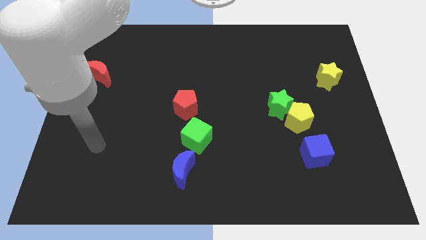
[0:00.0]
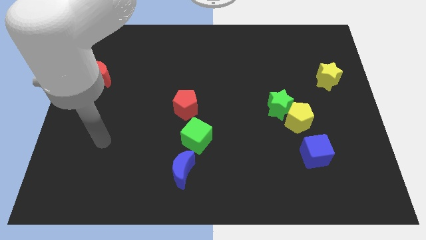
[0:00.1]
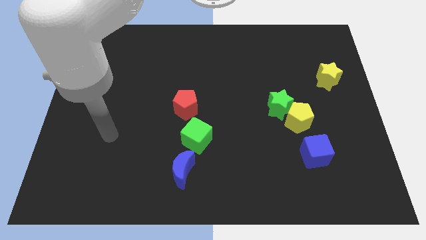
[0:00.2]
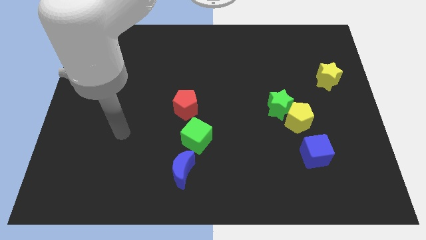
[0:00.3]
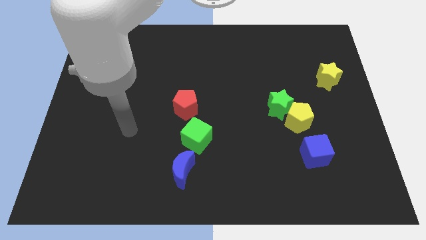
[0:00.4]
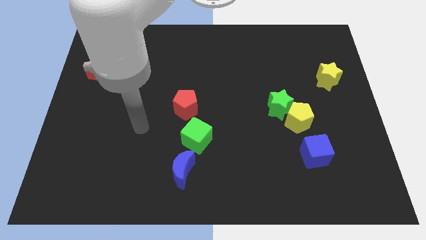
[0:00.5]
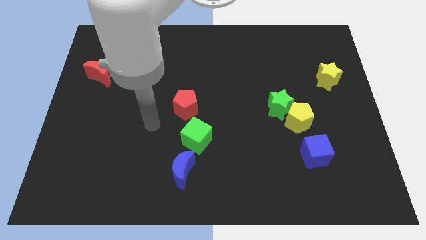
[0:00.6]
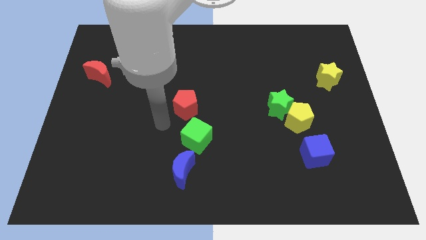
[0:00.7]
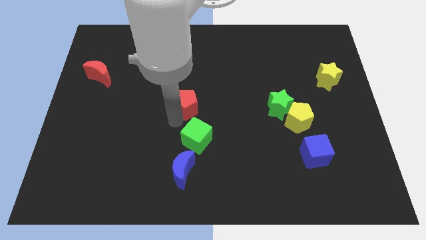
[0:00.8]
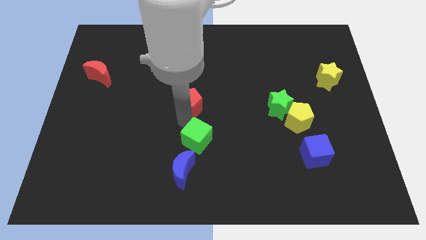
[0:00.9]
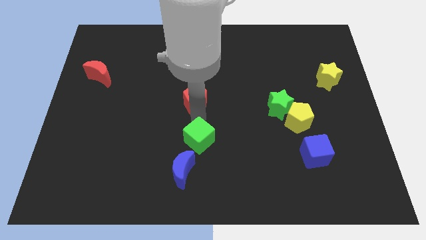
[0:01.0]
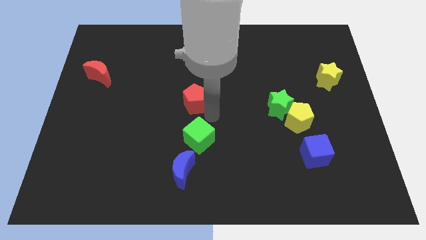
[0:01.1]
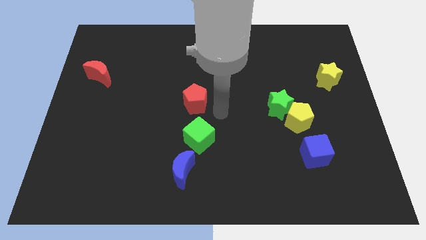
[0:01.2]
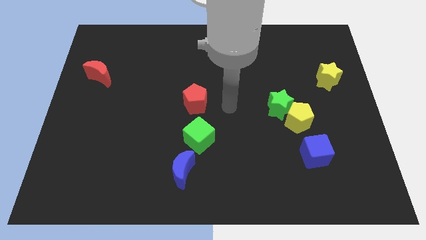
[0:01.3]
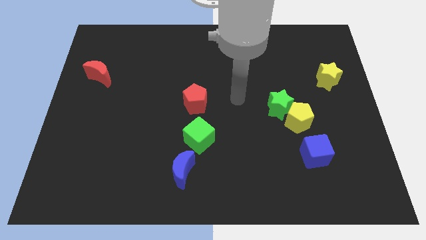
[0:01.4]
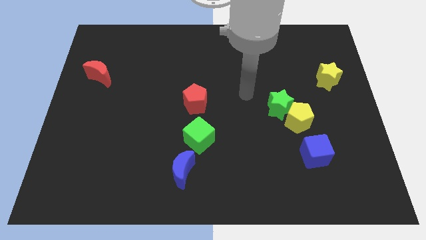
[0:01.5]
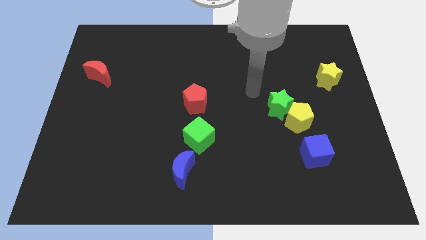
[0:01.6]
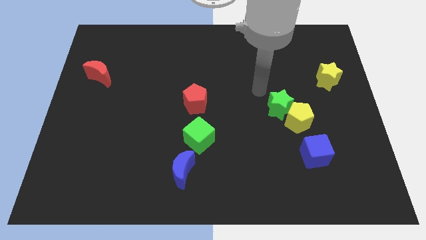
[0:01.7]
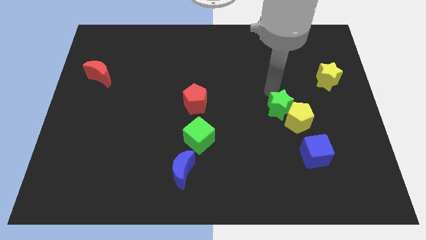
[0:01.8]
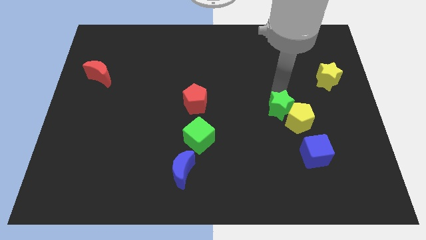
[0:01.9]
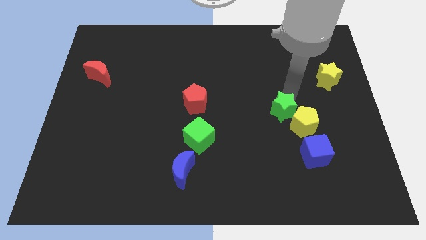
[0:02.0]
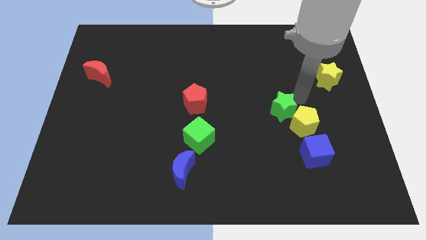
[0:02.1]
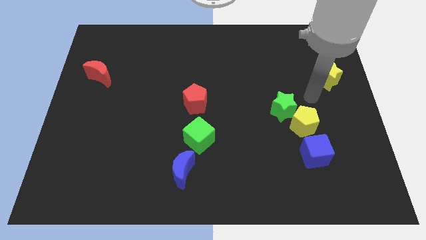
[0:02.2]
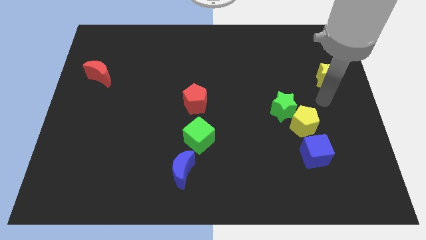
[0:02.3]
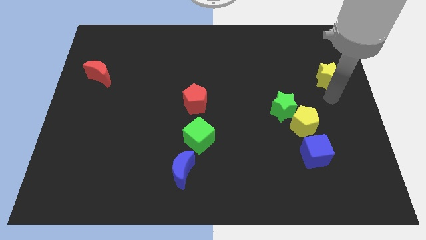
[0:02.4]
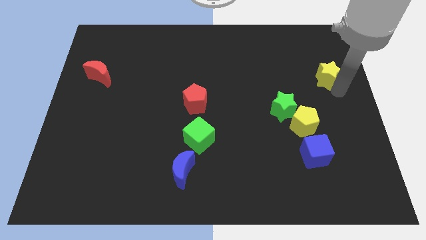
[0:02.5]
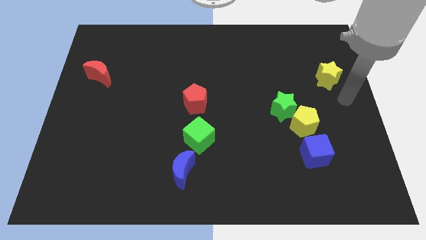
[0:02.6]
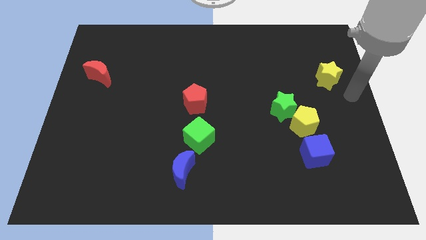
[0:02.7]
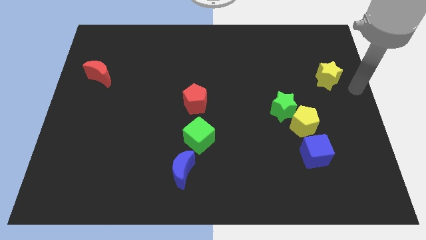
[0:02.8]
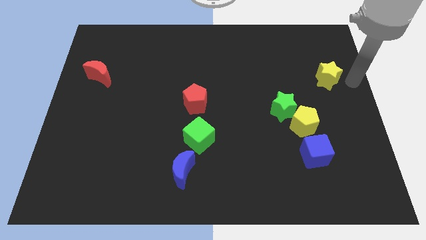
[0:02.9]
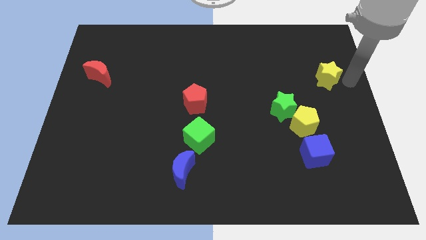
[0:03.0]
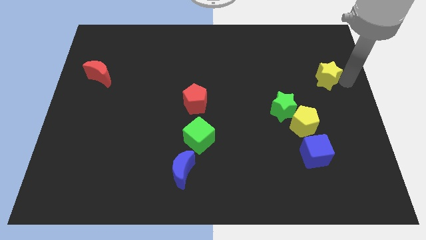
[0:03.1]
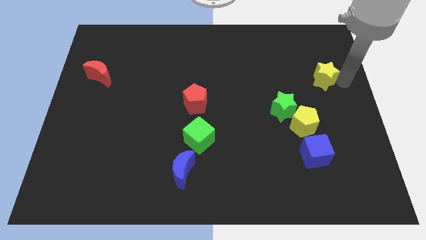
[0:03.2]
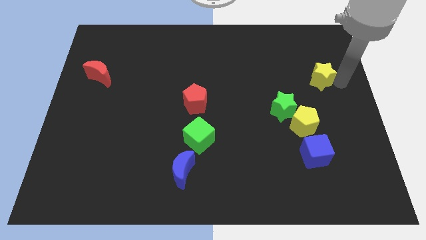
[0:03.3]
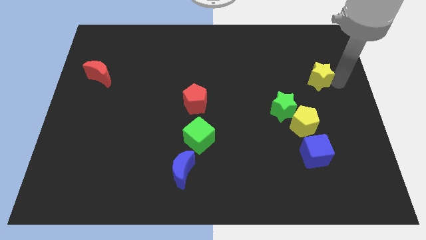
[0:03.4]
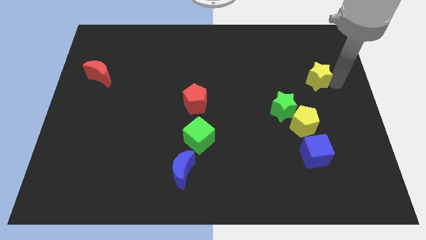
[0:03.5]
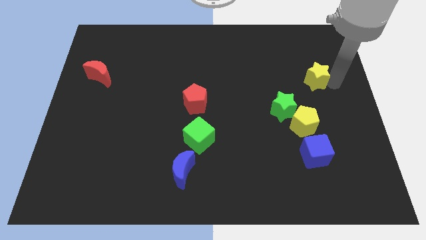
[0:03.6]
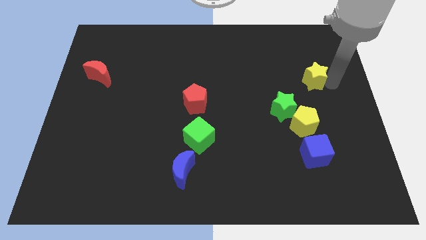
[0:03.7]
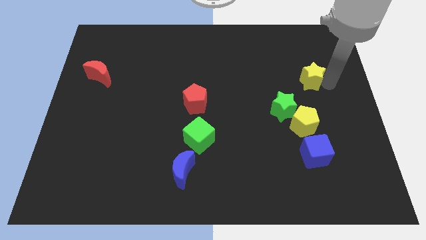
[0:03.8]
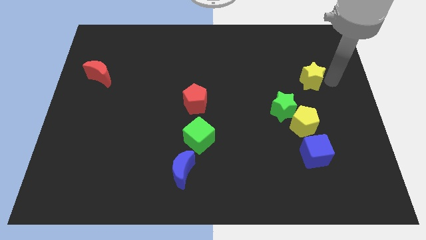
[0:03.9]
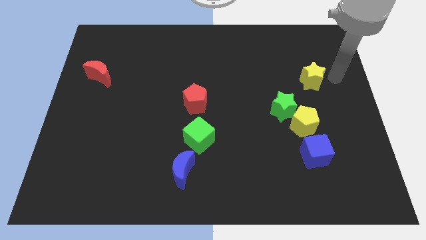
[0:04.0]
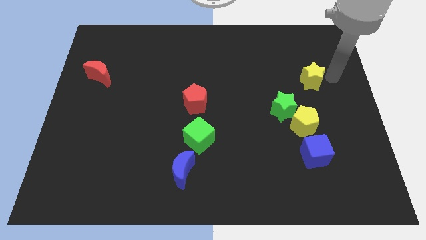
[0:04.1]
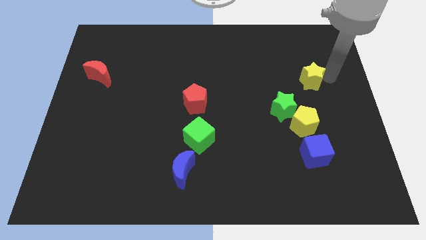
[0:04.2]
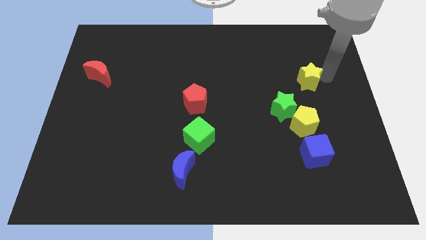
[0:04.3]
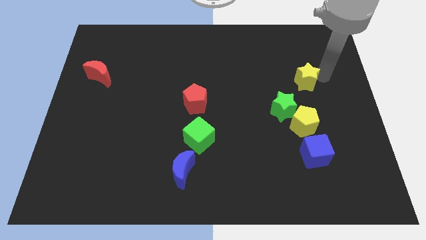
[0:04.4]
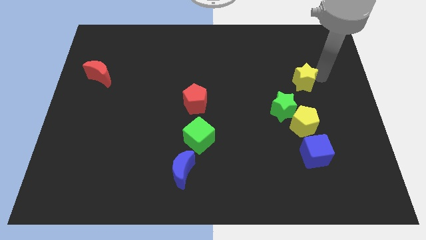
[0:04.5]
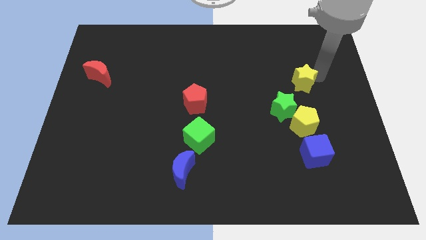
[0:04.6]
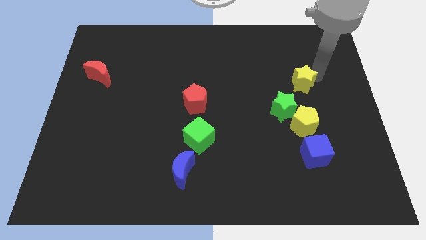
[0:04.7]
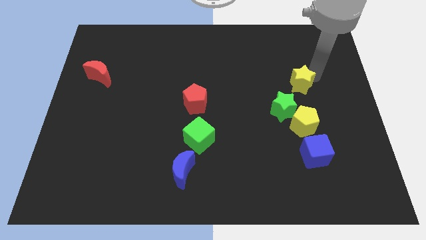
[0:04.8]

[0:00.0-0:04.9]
slightly push the yellow star to the left

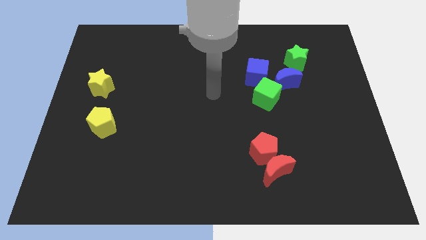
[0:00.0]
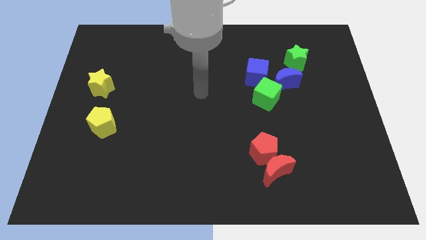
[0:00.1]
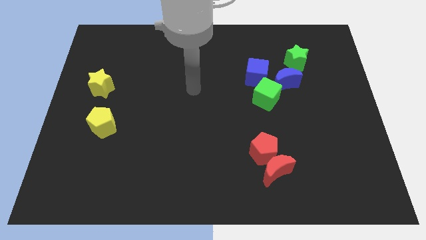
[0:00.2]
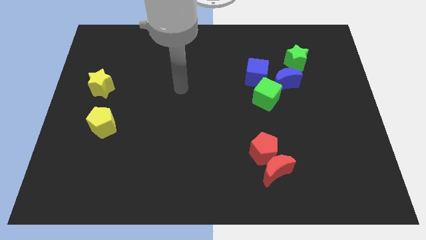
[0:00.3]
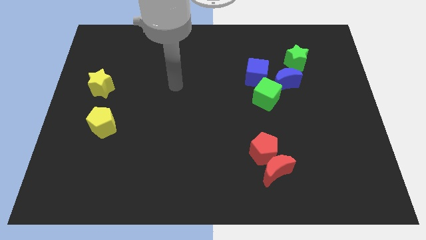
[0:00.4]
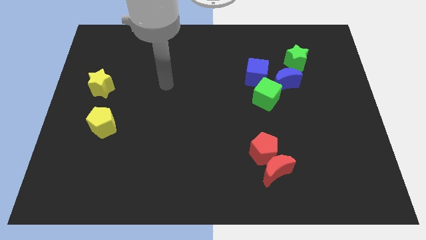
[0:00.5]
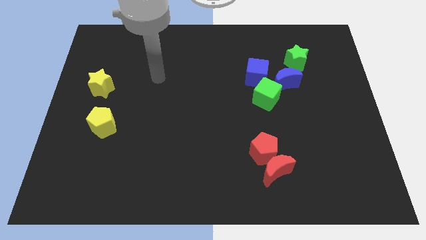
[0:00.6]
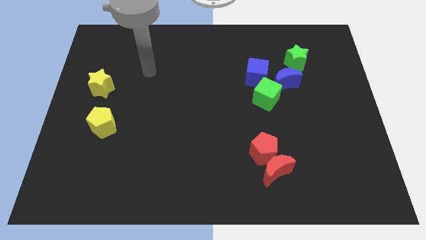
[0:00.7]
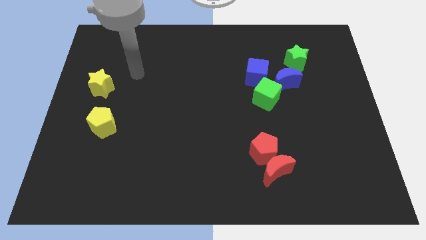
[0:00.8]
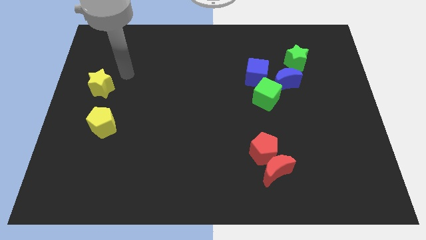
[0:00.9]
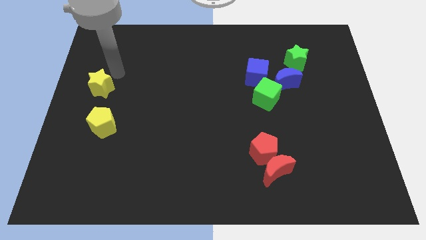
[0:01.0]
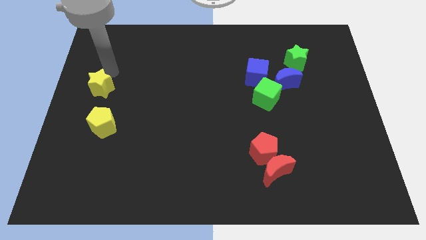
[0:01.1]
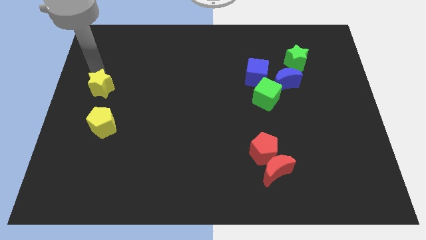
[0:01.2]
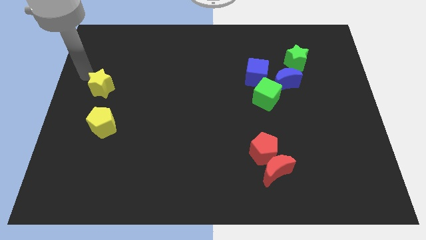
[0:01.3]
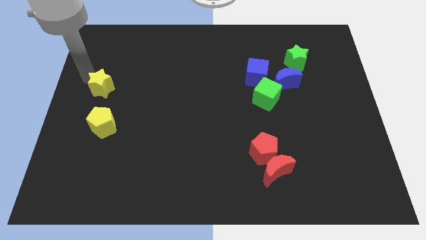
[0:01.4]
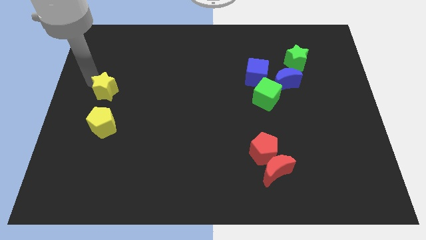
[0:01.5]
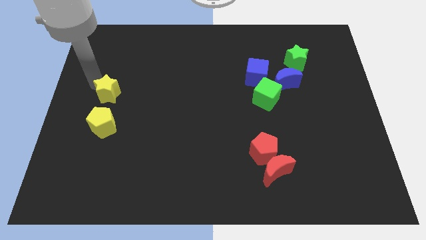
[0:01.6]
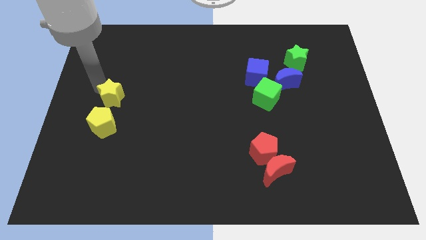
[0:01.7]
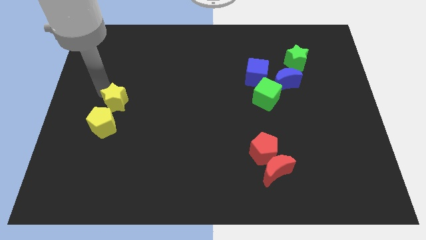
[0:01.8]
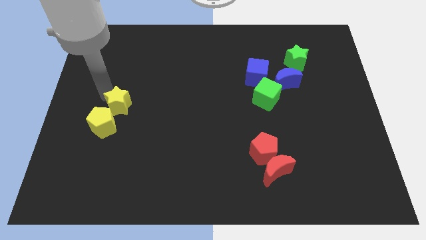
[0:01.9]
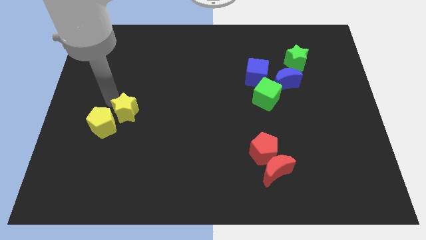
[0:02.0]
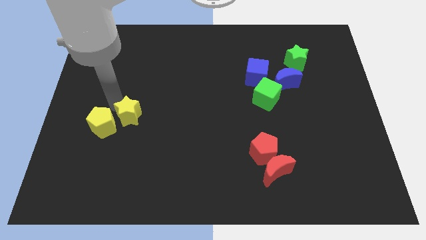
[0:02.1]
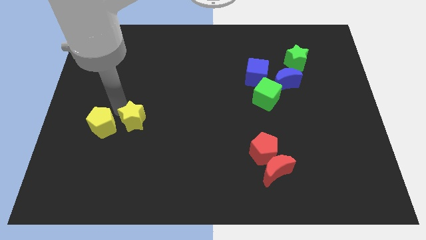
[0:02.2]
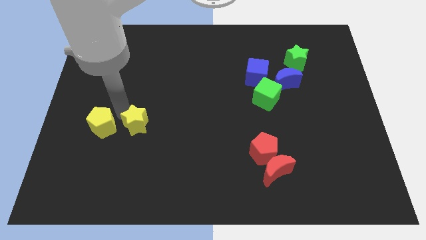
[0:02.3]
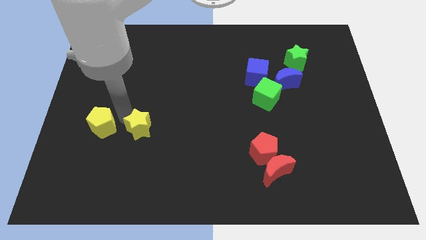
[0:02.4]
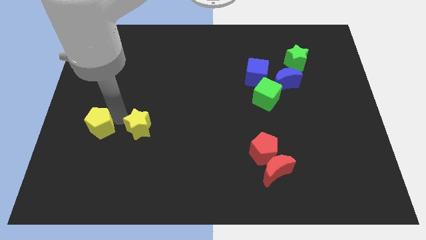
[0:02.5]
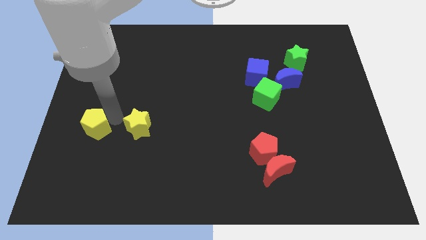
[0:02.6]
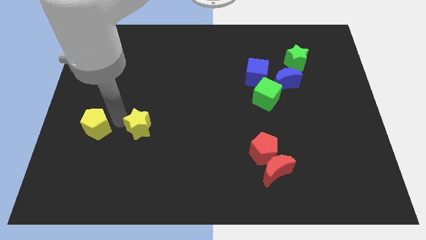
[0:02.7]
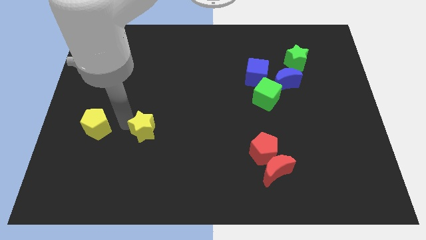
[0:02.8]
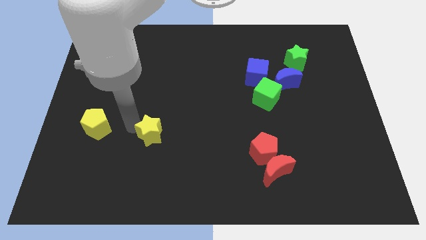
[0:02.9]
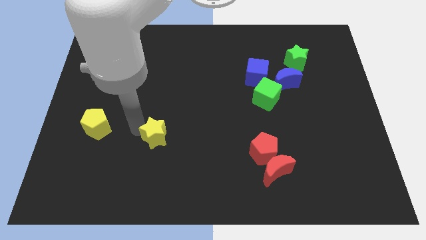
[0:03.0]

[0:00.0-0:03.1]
slide the yellow star downwards and to the right
